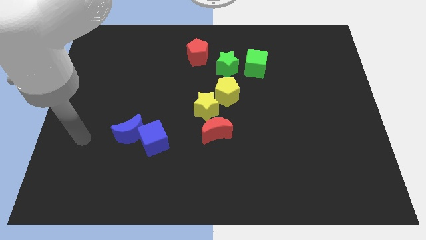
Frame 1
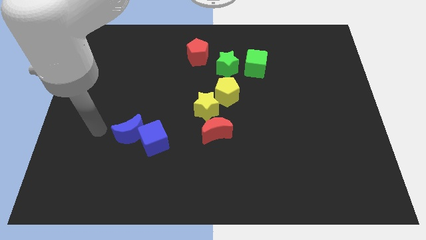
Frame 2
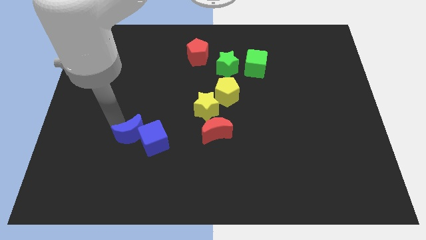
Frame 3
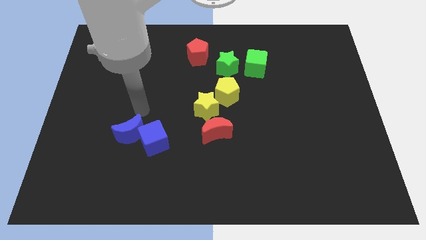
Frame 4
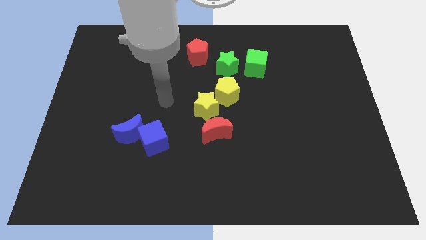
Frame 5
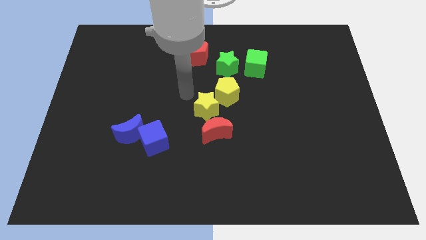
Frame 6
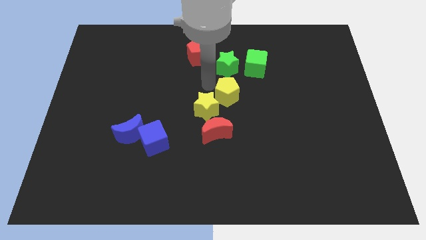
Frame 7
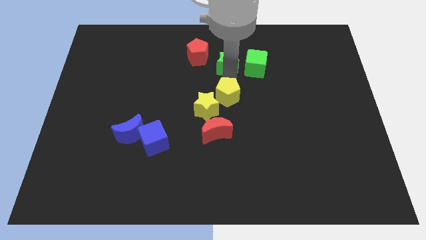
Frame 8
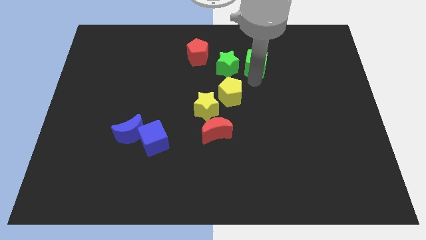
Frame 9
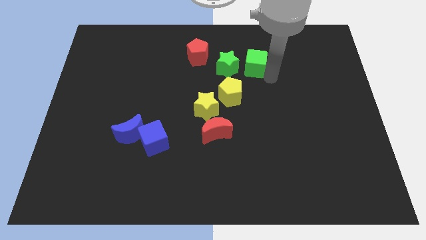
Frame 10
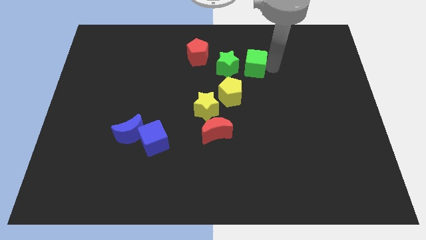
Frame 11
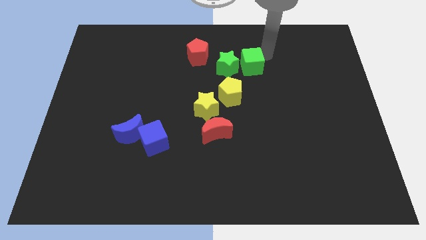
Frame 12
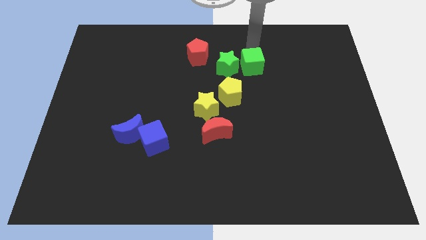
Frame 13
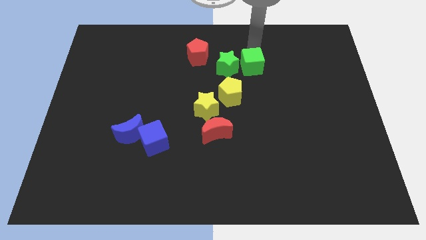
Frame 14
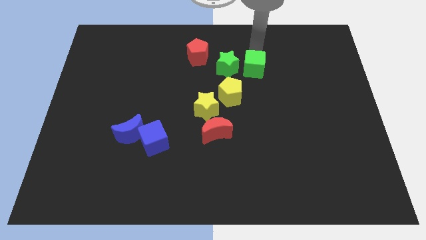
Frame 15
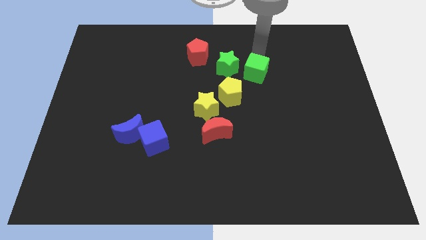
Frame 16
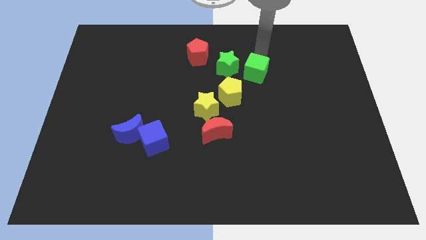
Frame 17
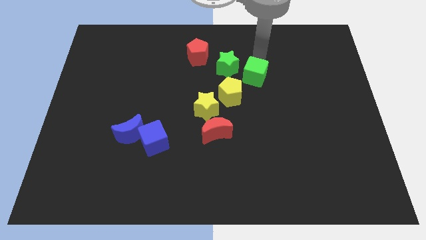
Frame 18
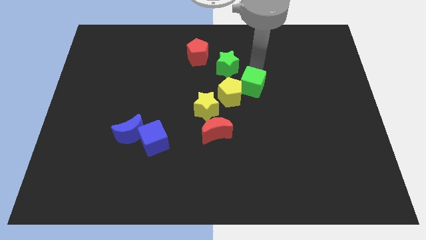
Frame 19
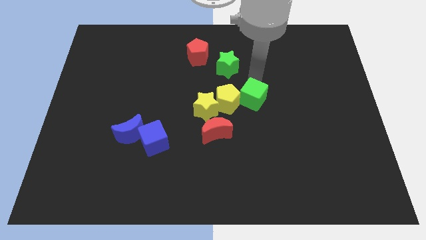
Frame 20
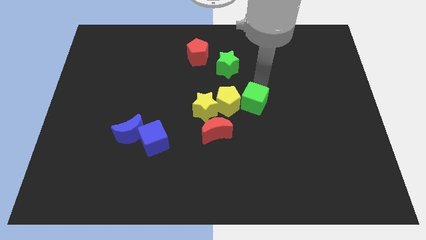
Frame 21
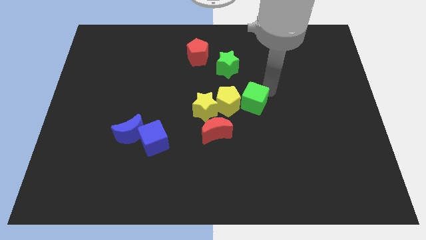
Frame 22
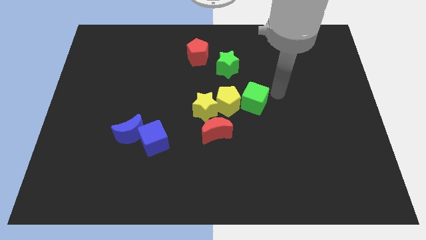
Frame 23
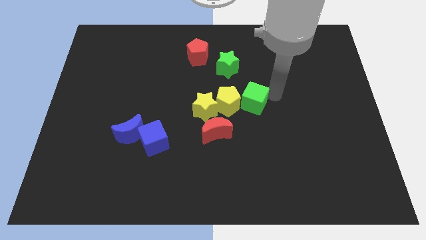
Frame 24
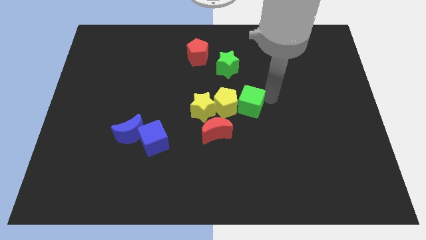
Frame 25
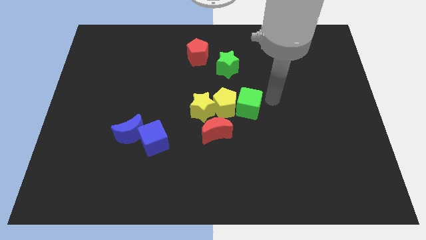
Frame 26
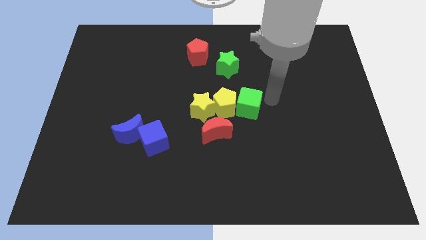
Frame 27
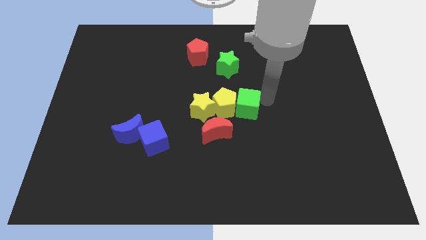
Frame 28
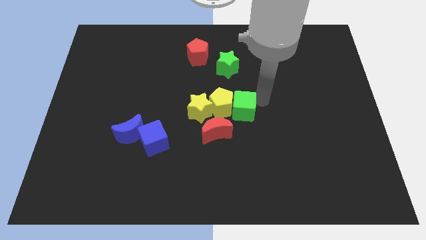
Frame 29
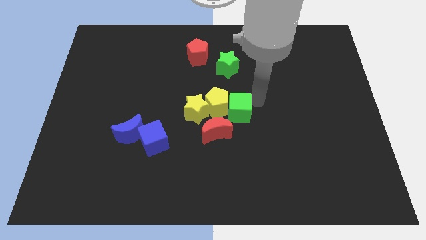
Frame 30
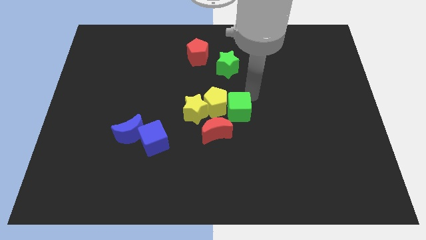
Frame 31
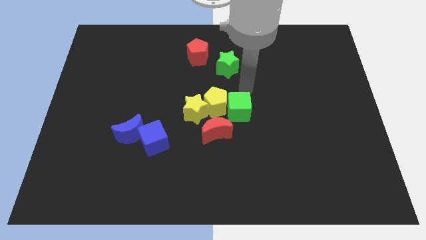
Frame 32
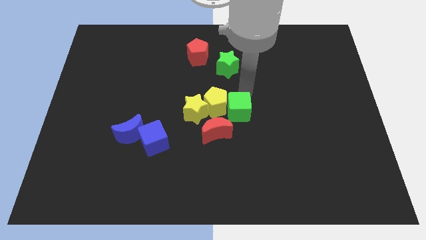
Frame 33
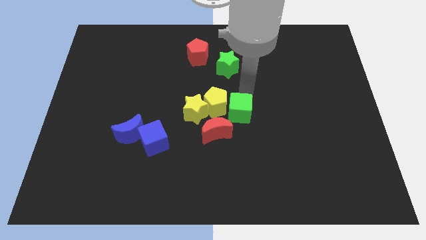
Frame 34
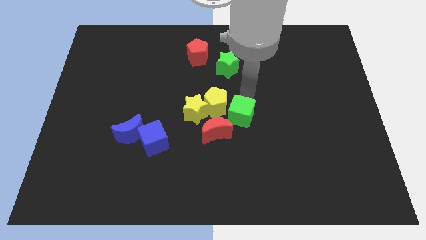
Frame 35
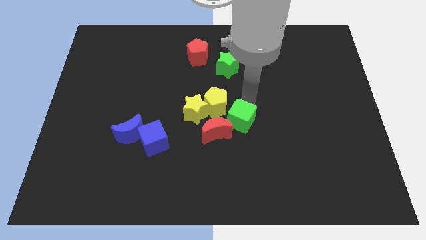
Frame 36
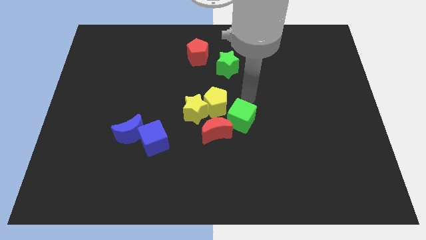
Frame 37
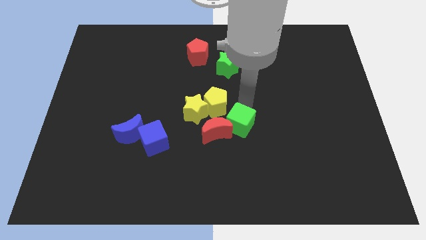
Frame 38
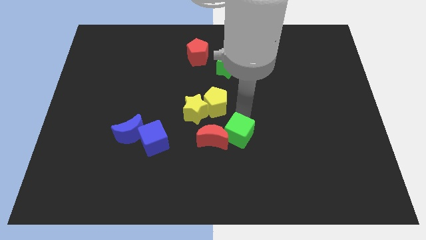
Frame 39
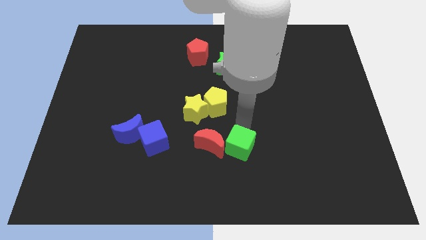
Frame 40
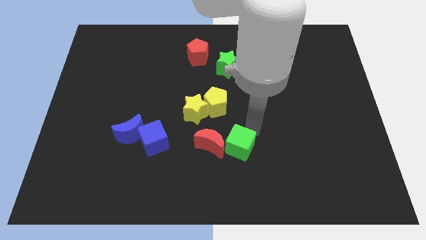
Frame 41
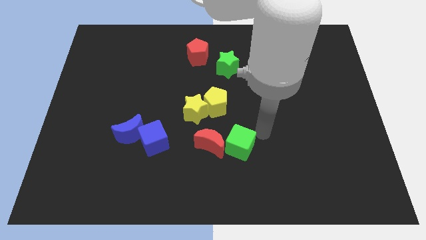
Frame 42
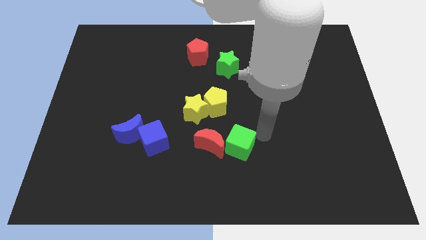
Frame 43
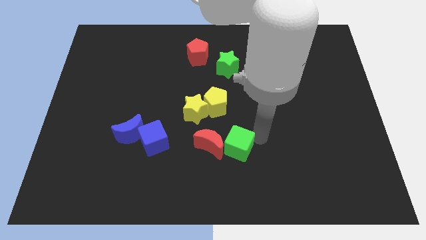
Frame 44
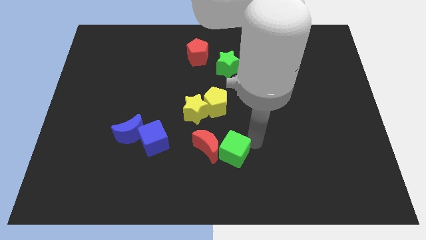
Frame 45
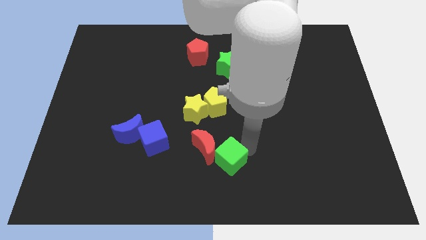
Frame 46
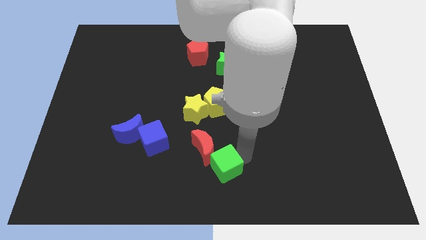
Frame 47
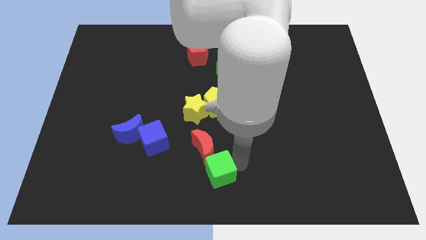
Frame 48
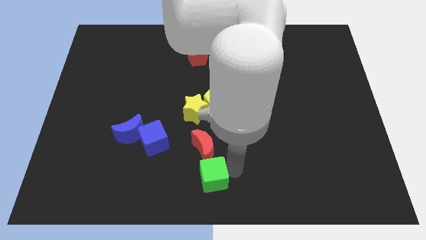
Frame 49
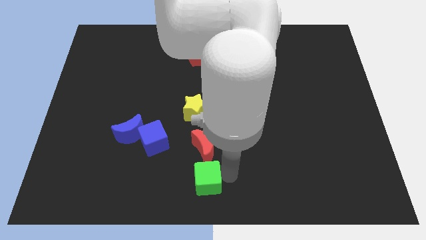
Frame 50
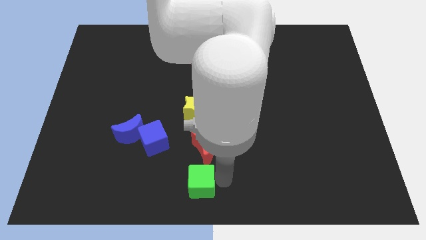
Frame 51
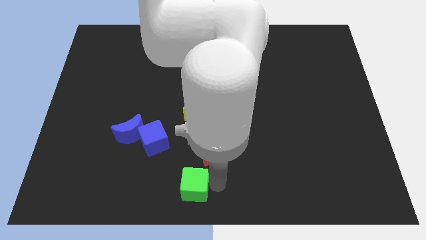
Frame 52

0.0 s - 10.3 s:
put the green cube to the bottom left of the red moon

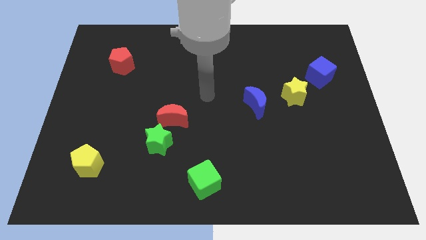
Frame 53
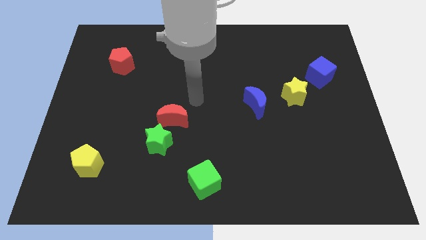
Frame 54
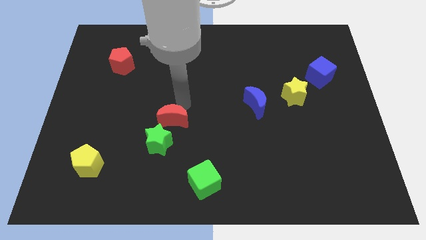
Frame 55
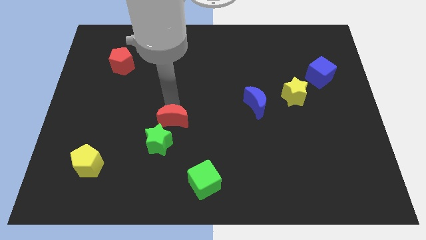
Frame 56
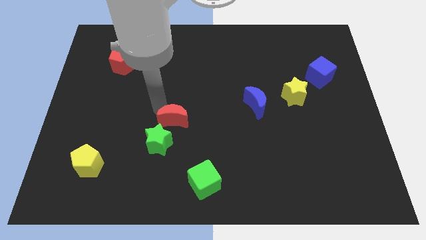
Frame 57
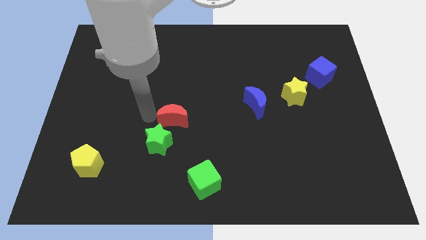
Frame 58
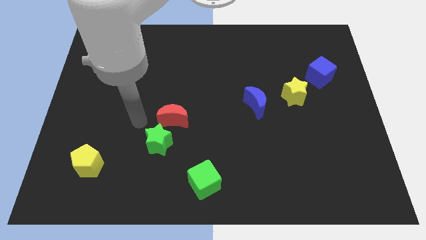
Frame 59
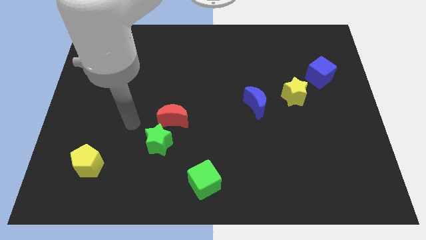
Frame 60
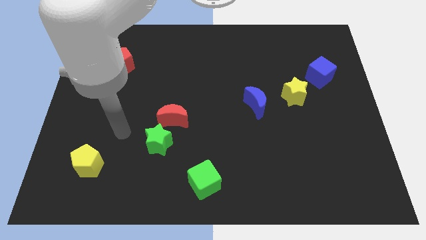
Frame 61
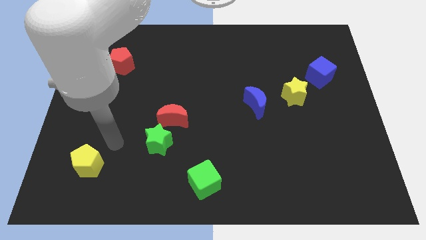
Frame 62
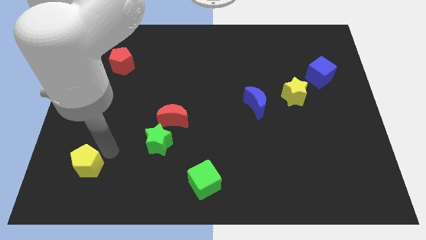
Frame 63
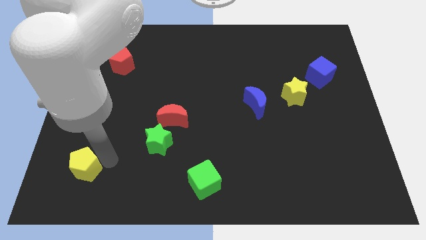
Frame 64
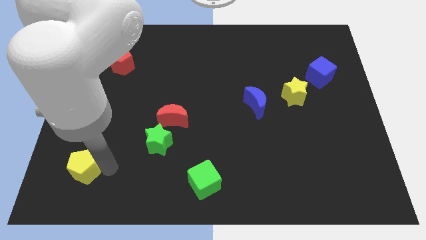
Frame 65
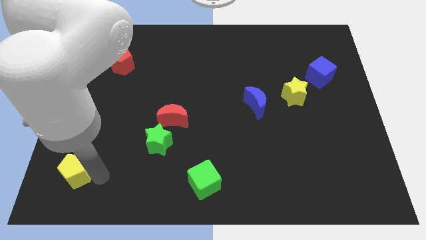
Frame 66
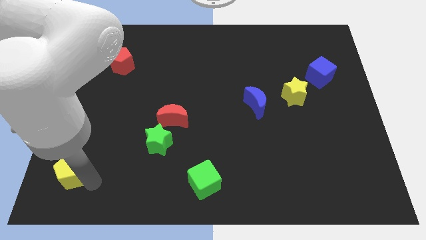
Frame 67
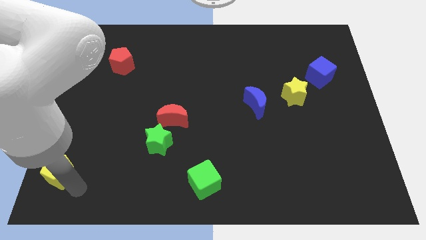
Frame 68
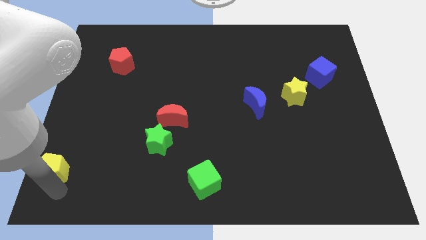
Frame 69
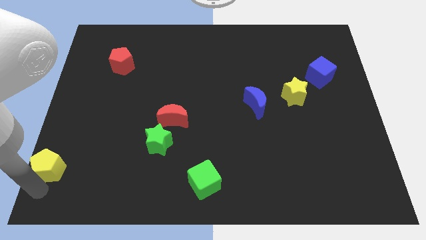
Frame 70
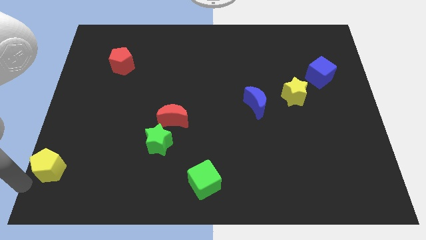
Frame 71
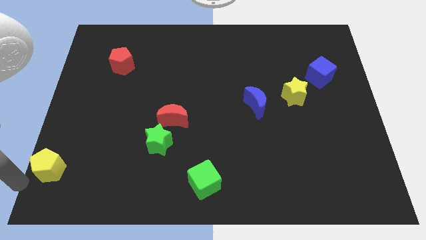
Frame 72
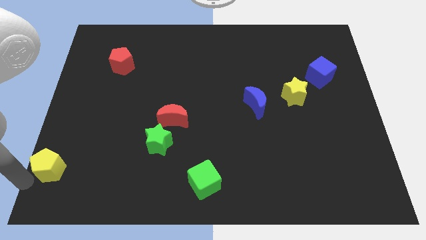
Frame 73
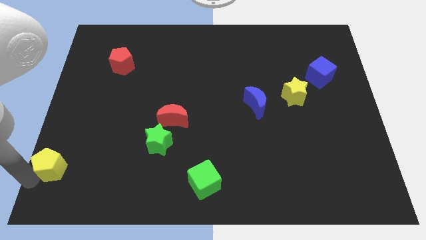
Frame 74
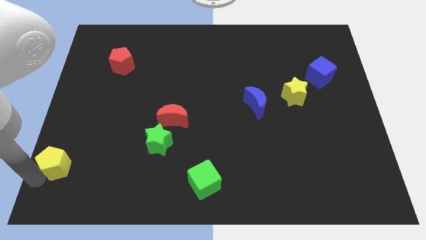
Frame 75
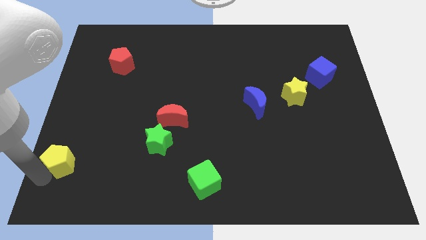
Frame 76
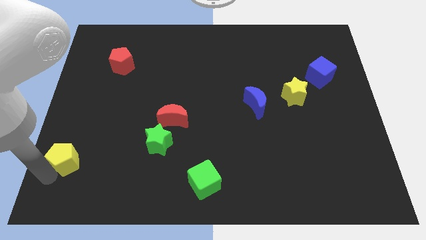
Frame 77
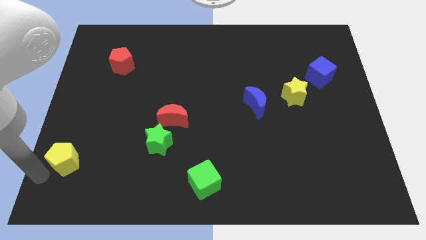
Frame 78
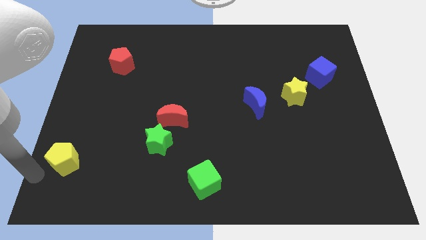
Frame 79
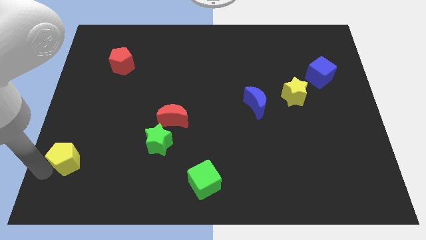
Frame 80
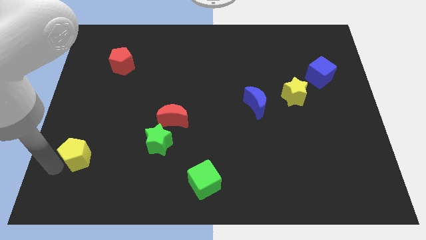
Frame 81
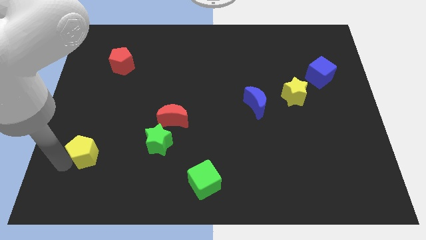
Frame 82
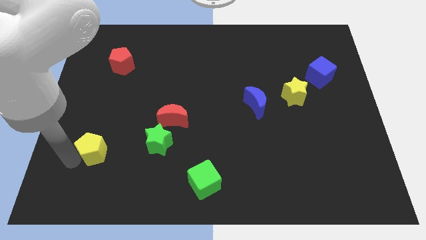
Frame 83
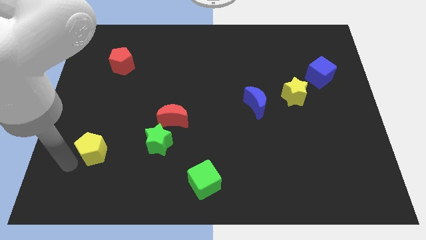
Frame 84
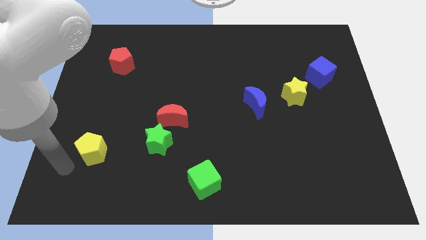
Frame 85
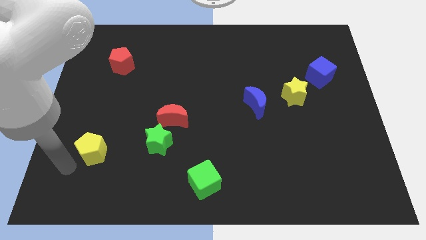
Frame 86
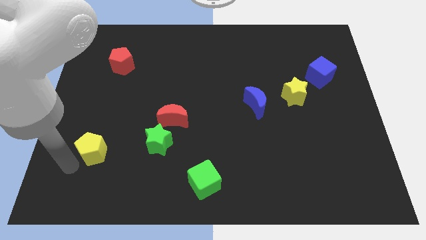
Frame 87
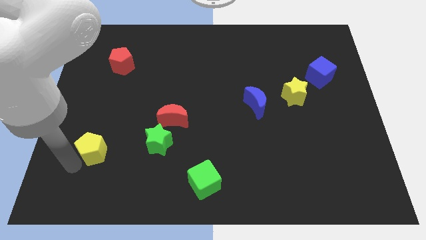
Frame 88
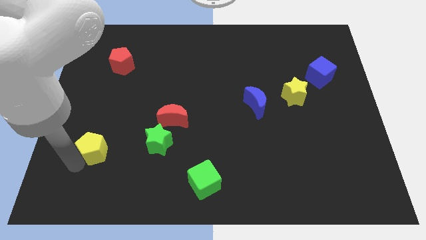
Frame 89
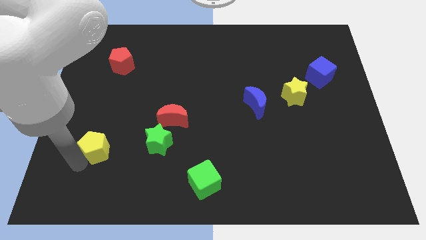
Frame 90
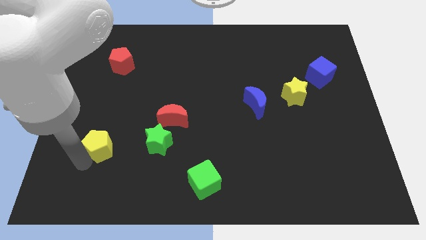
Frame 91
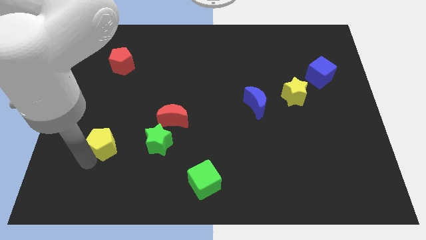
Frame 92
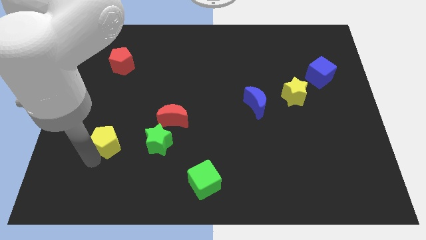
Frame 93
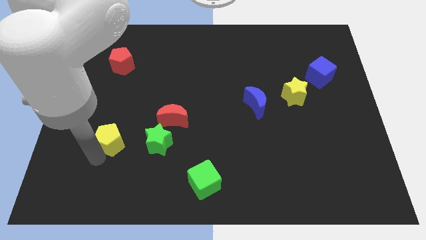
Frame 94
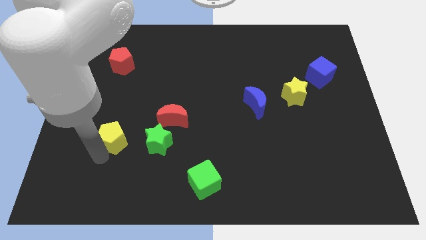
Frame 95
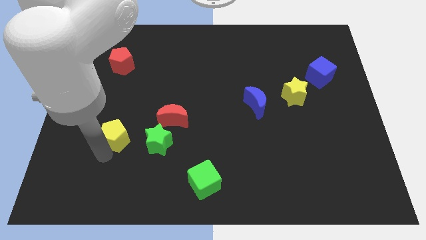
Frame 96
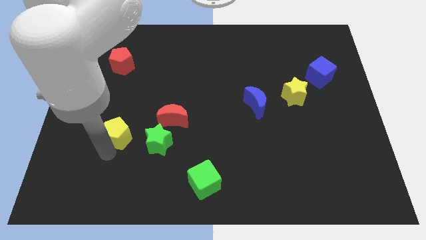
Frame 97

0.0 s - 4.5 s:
move the yellow pentagon to the left of the red moon
